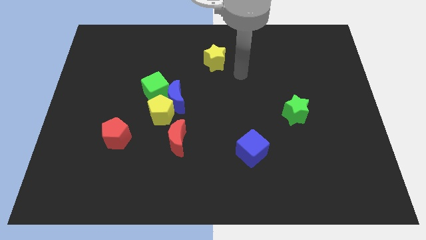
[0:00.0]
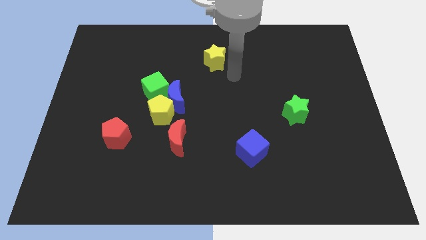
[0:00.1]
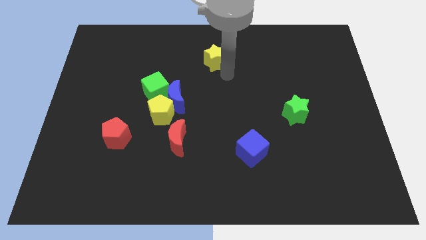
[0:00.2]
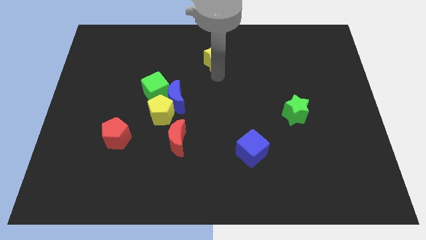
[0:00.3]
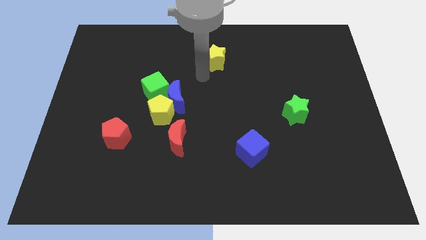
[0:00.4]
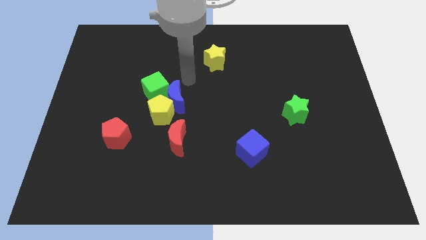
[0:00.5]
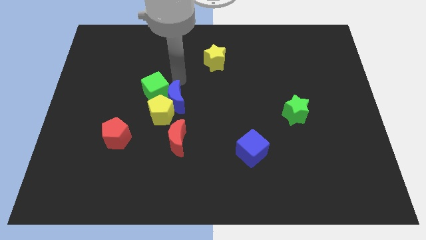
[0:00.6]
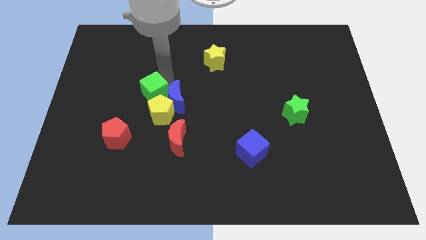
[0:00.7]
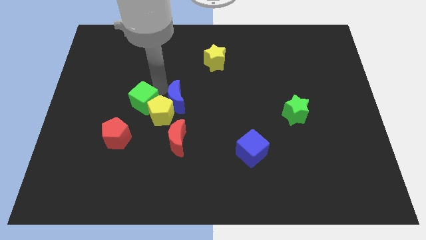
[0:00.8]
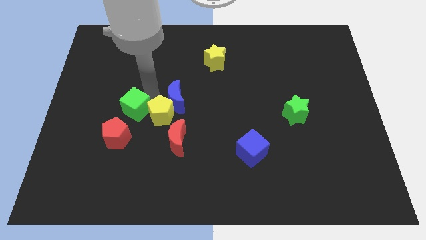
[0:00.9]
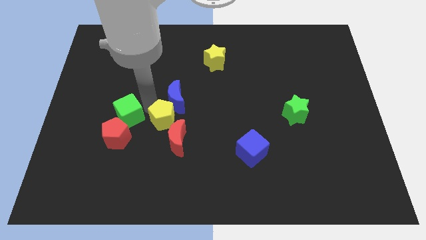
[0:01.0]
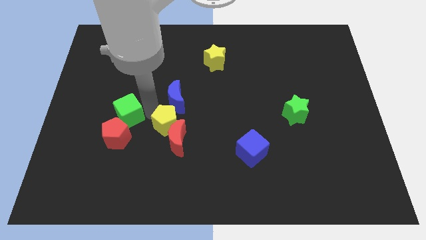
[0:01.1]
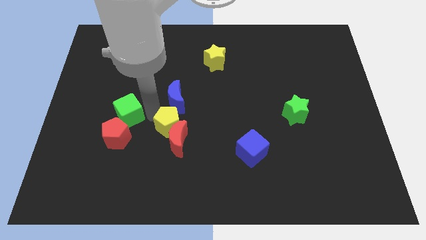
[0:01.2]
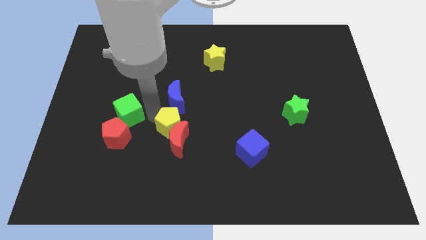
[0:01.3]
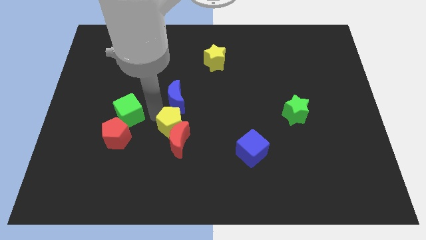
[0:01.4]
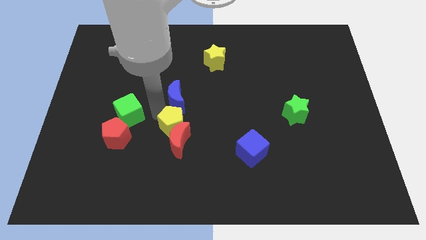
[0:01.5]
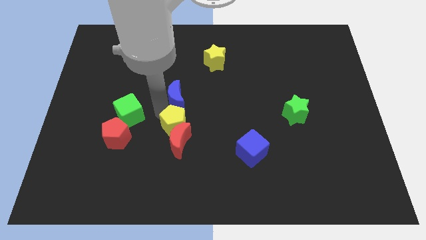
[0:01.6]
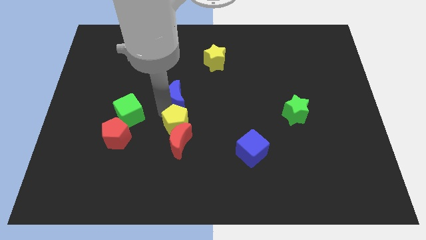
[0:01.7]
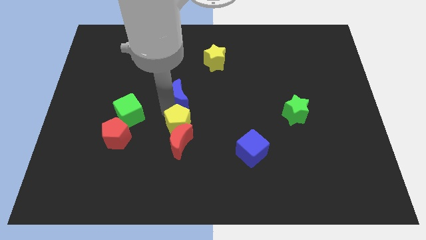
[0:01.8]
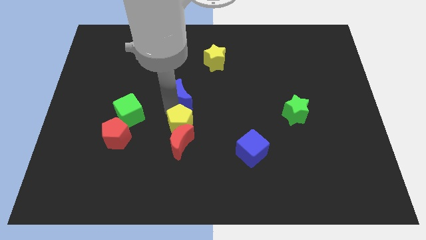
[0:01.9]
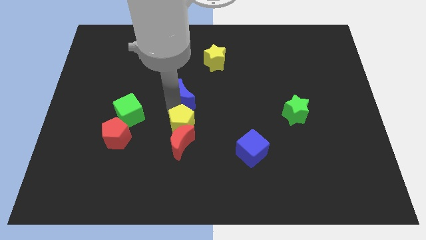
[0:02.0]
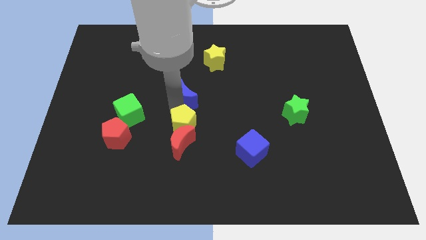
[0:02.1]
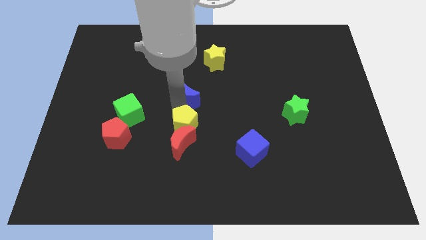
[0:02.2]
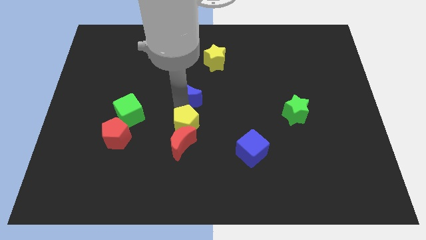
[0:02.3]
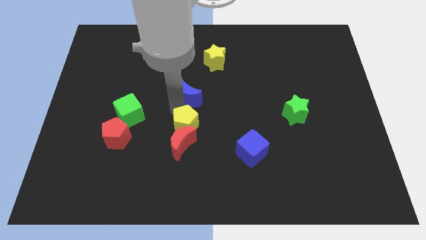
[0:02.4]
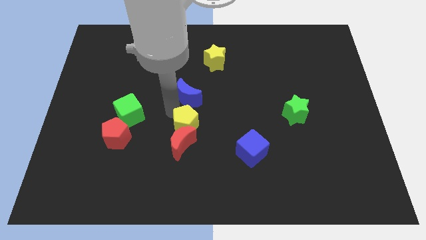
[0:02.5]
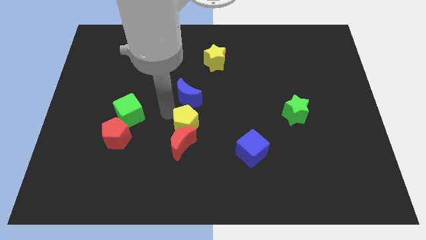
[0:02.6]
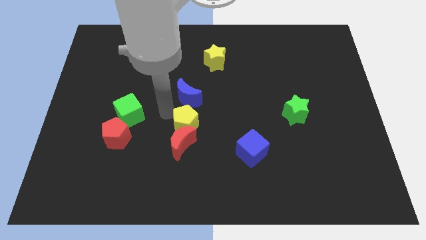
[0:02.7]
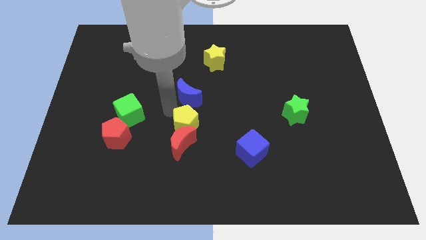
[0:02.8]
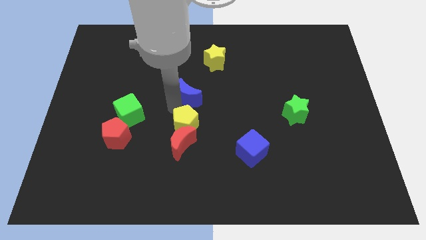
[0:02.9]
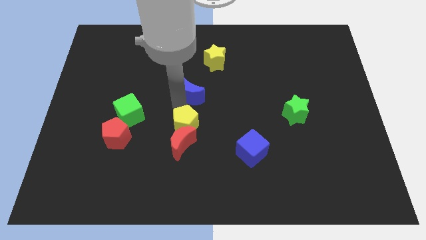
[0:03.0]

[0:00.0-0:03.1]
pull the blue moon apart from the yellow pentagon and green cube

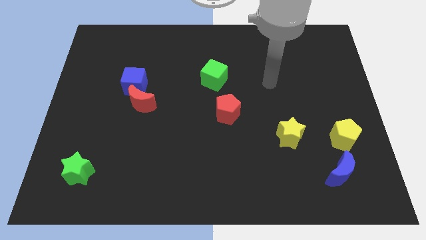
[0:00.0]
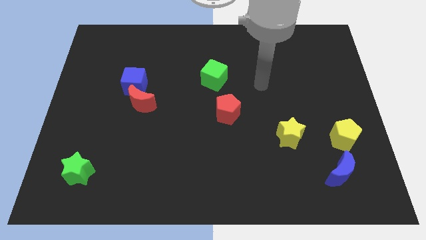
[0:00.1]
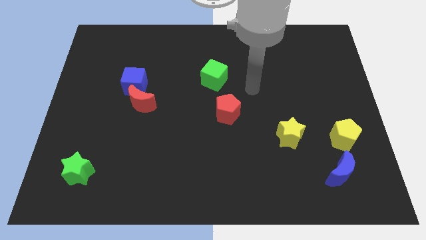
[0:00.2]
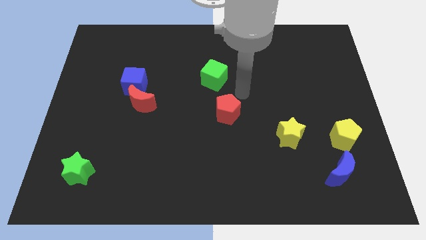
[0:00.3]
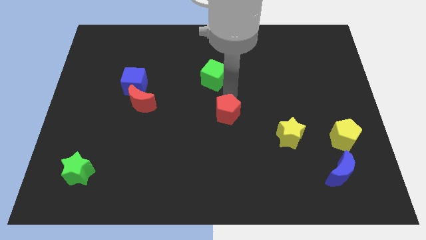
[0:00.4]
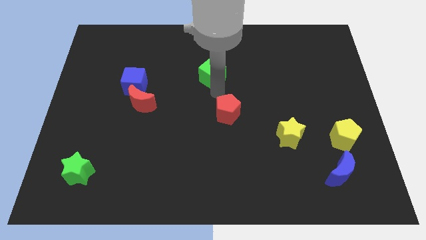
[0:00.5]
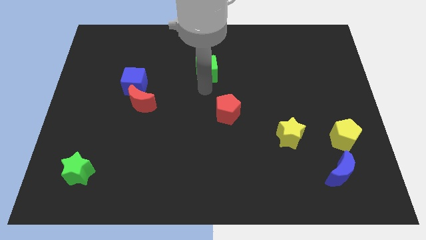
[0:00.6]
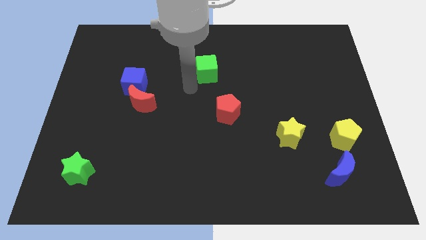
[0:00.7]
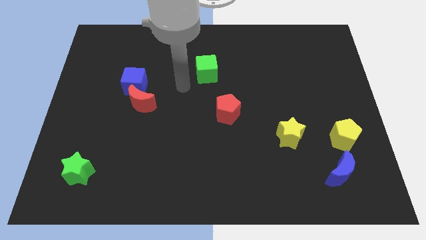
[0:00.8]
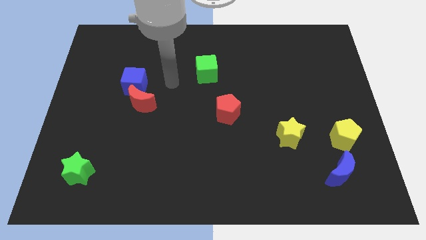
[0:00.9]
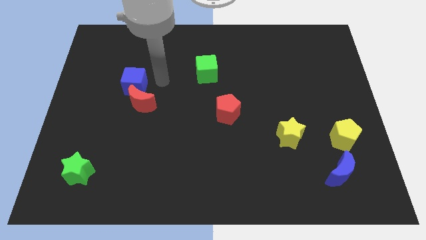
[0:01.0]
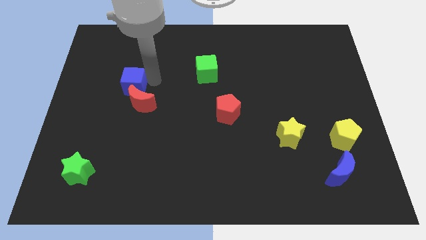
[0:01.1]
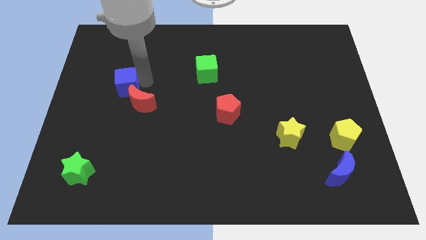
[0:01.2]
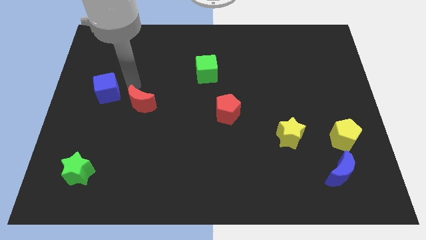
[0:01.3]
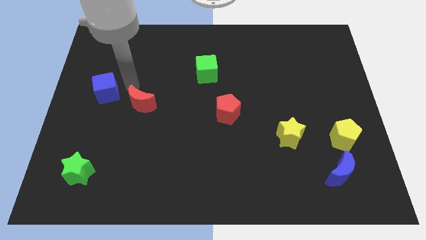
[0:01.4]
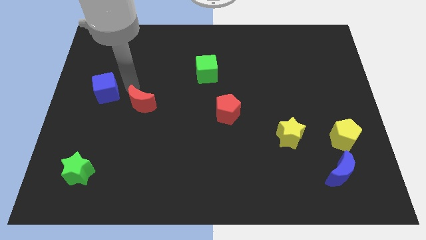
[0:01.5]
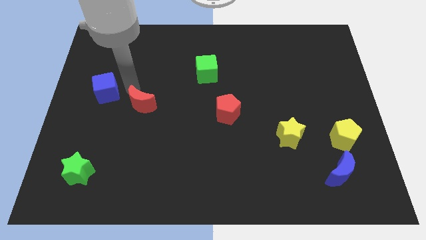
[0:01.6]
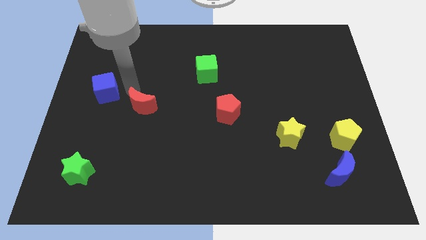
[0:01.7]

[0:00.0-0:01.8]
move the red moon away from the blue cube

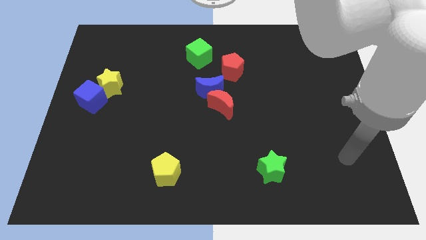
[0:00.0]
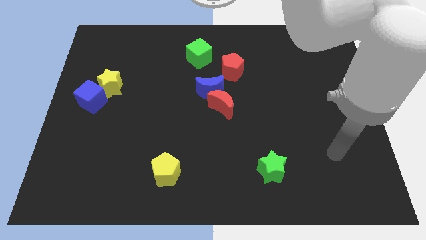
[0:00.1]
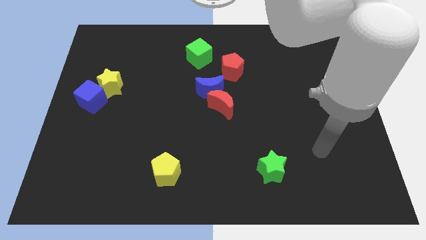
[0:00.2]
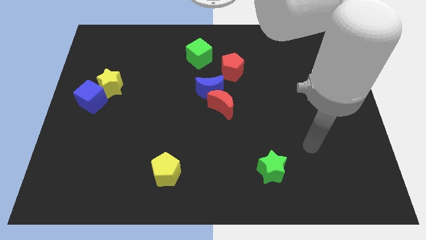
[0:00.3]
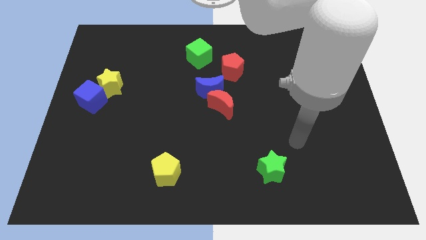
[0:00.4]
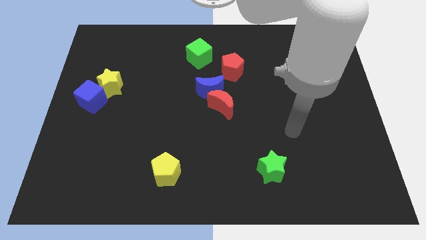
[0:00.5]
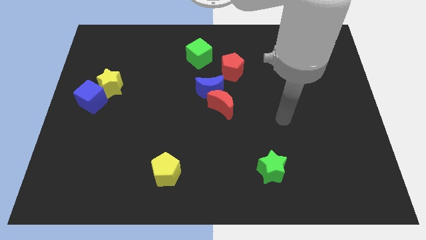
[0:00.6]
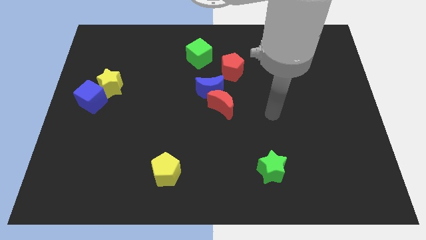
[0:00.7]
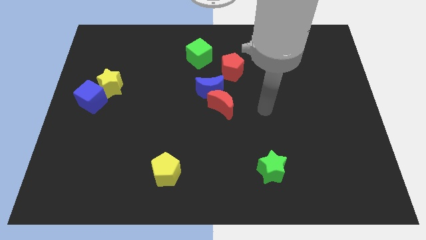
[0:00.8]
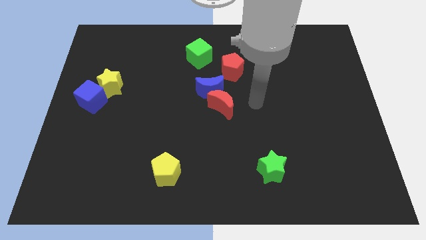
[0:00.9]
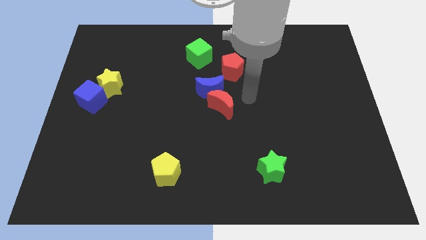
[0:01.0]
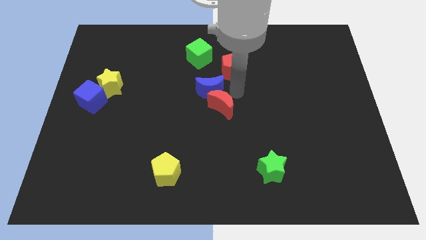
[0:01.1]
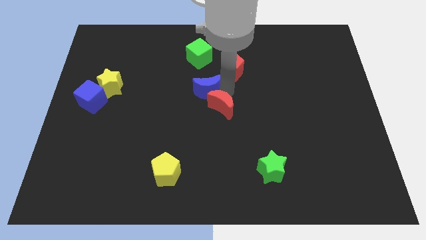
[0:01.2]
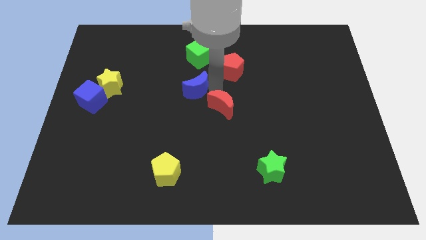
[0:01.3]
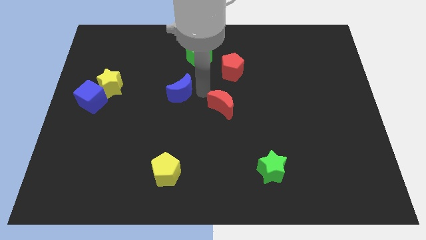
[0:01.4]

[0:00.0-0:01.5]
separate the red moon from the blue moon

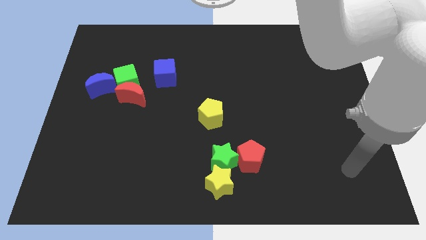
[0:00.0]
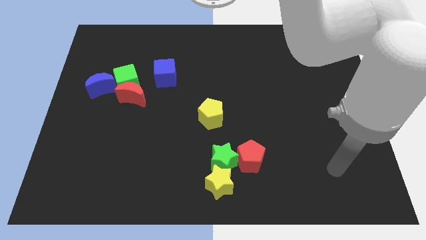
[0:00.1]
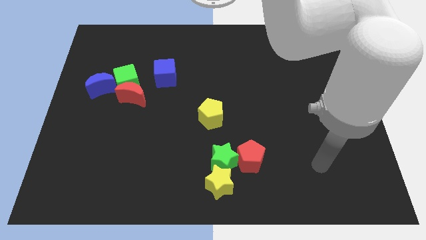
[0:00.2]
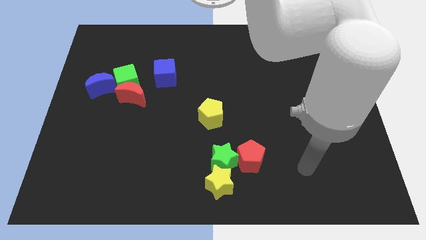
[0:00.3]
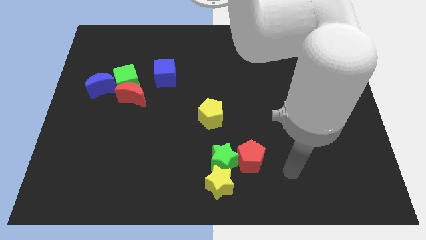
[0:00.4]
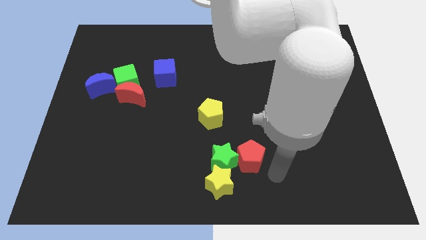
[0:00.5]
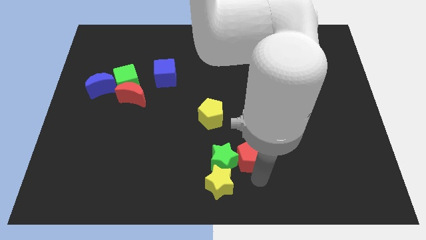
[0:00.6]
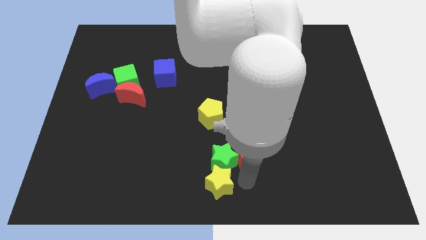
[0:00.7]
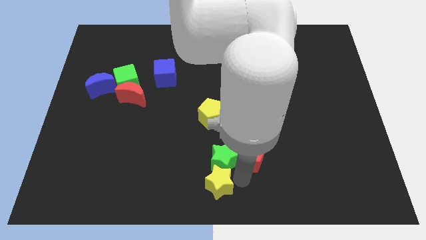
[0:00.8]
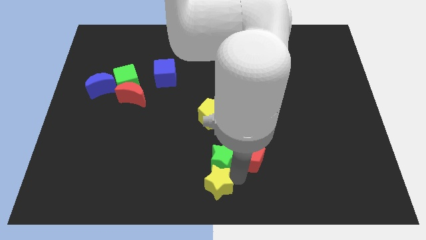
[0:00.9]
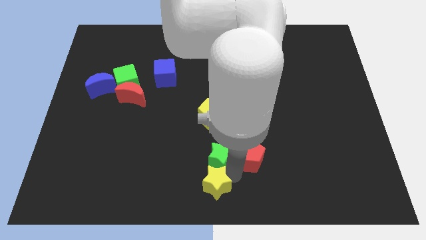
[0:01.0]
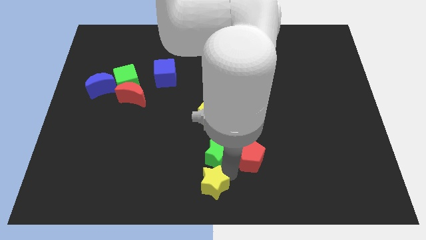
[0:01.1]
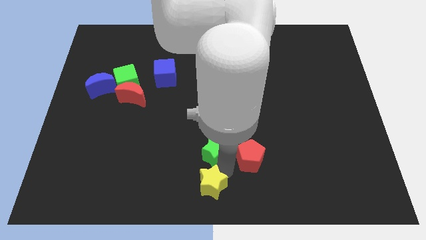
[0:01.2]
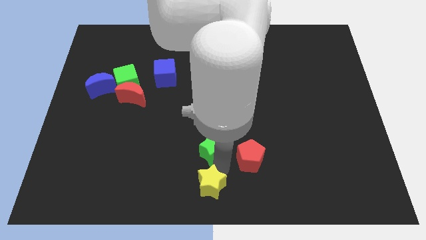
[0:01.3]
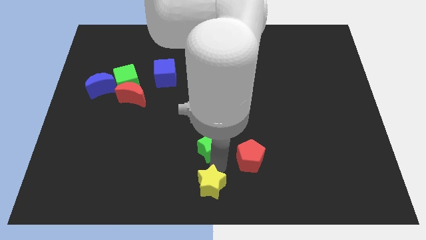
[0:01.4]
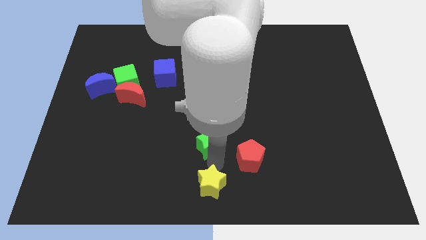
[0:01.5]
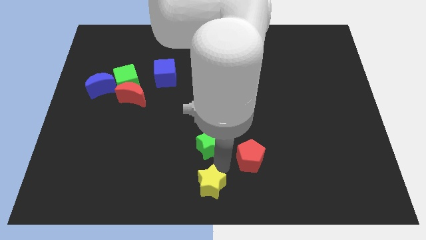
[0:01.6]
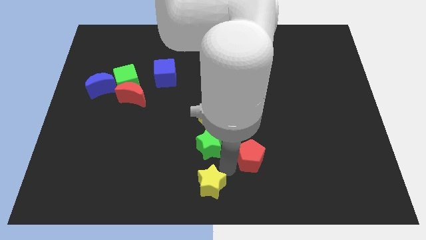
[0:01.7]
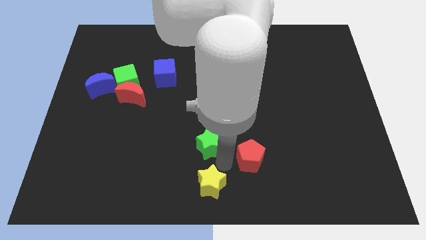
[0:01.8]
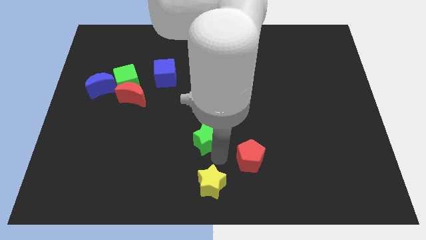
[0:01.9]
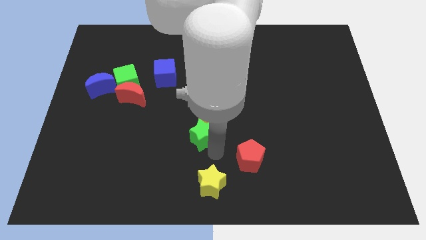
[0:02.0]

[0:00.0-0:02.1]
move the green star away from the yellow star and red pentagon

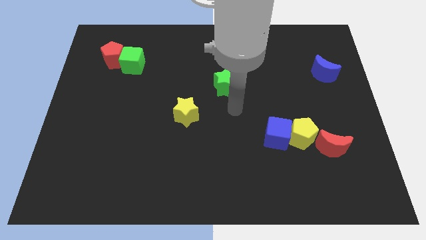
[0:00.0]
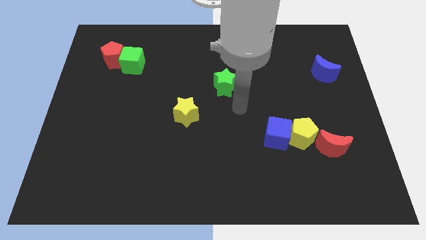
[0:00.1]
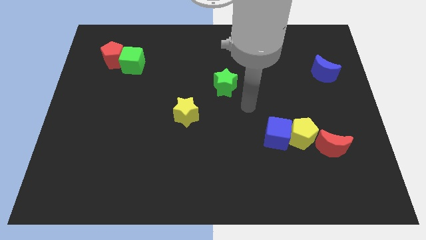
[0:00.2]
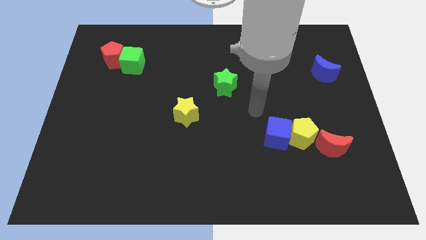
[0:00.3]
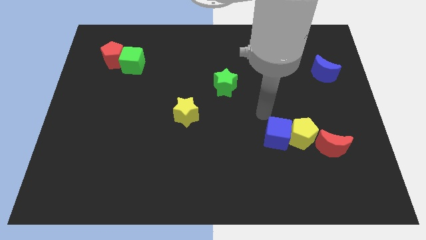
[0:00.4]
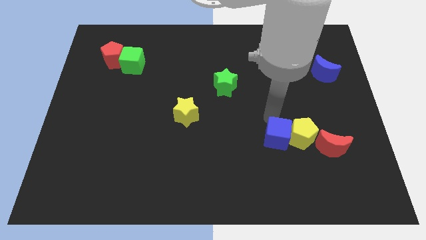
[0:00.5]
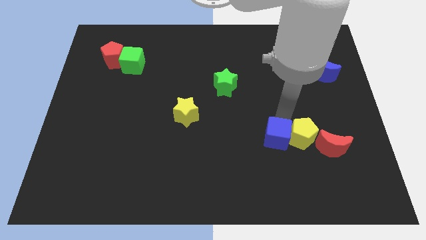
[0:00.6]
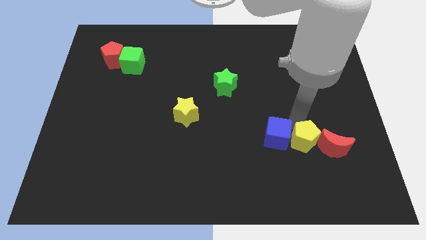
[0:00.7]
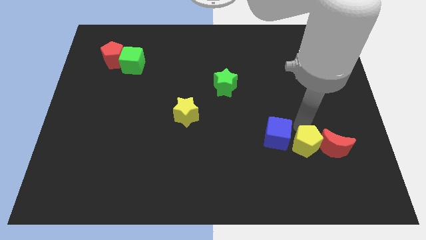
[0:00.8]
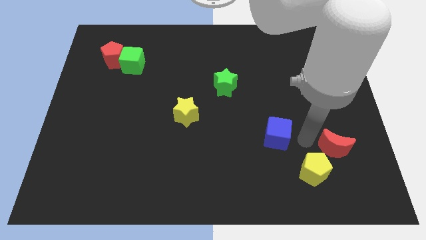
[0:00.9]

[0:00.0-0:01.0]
separate the blue cube from the yellow pentagon
